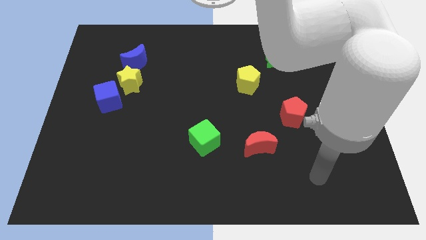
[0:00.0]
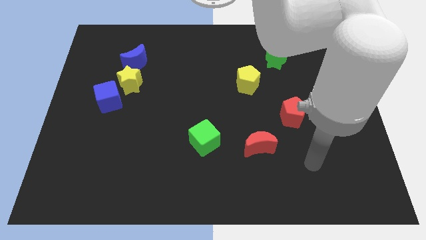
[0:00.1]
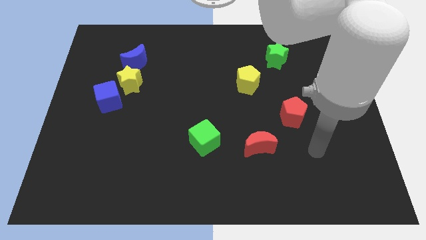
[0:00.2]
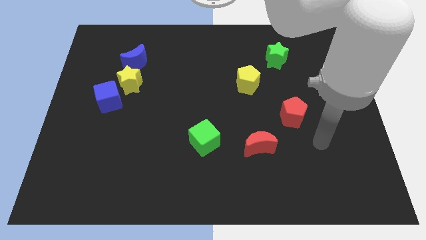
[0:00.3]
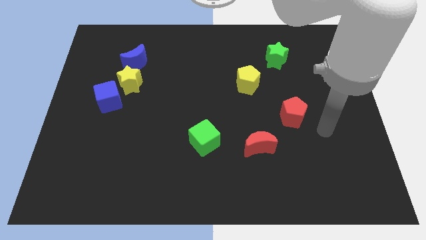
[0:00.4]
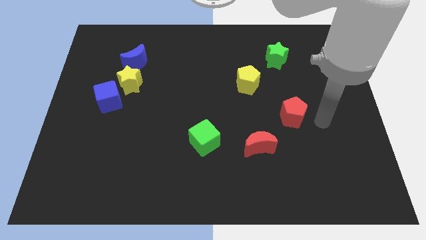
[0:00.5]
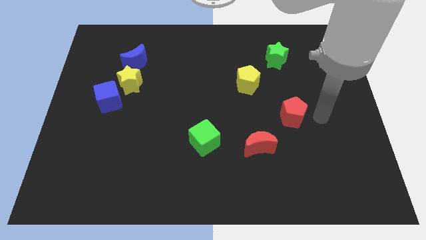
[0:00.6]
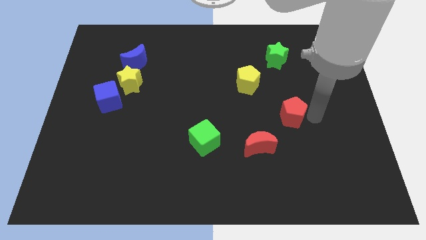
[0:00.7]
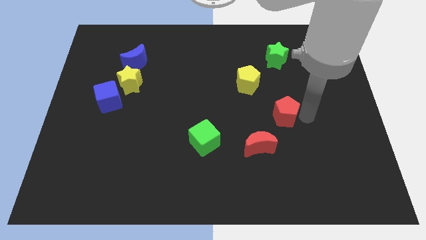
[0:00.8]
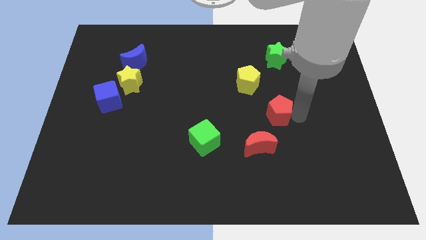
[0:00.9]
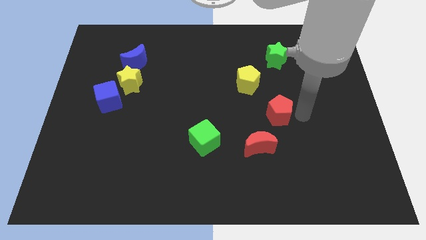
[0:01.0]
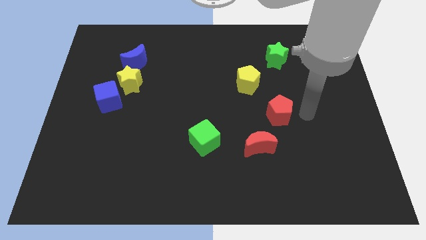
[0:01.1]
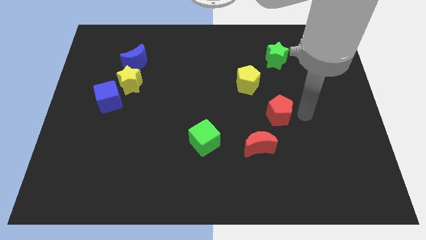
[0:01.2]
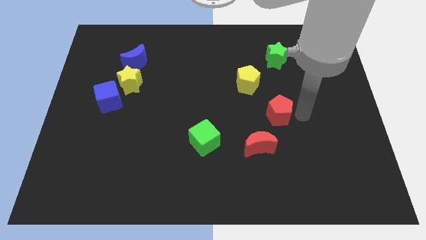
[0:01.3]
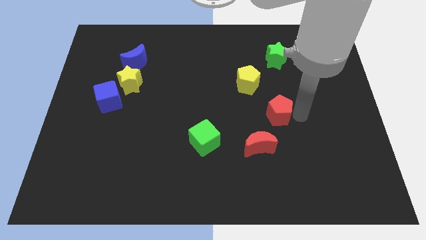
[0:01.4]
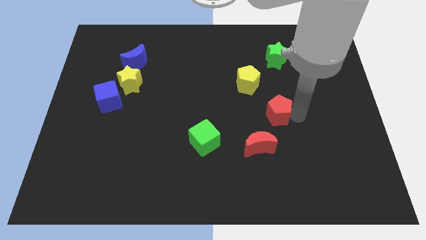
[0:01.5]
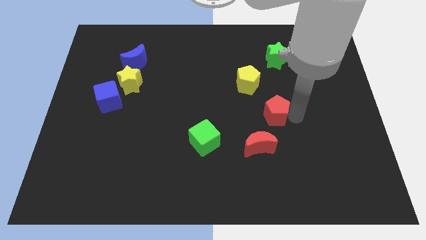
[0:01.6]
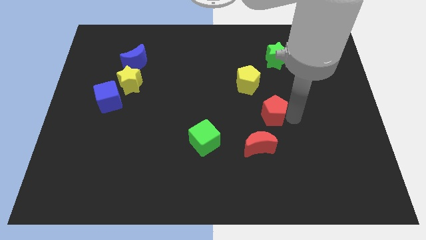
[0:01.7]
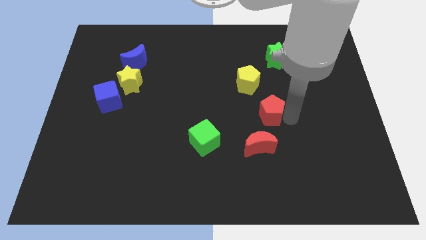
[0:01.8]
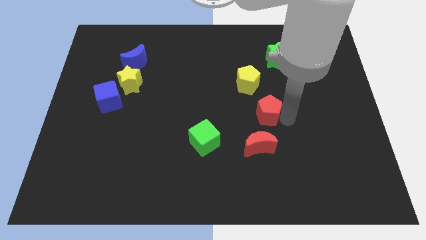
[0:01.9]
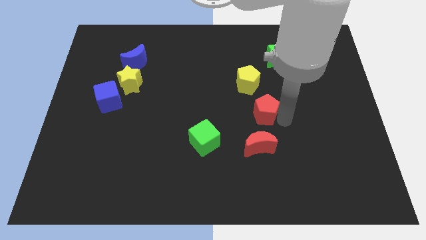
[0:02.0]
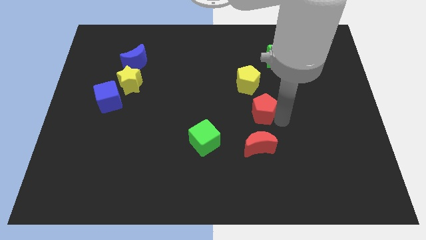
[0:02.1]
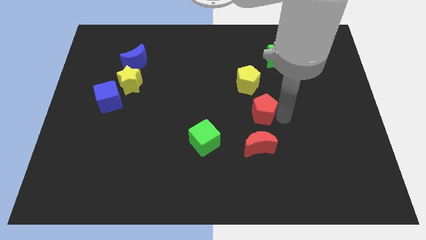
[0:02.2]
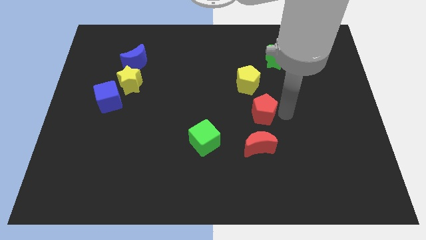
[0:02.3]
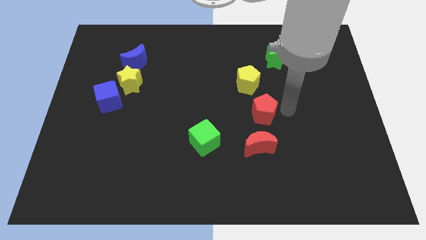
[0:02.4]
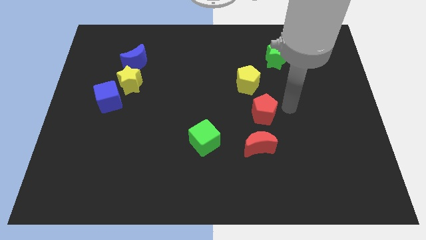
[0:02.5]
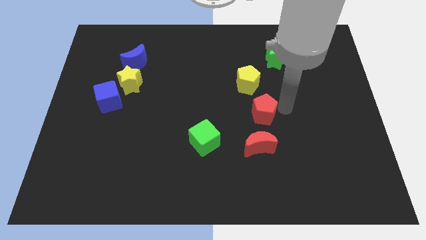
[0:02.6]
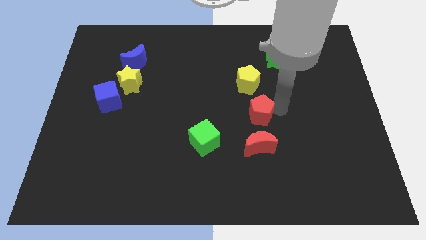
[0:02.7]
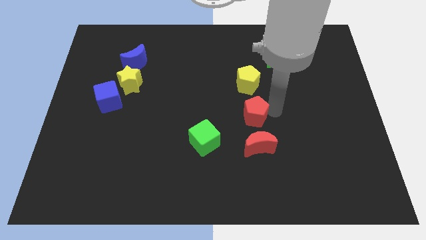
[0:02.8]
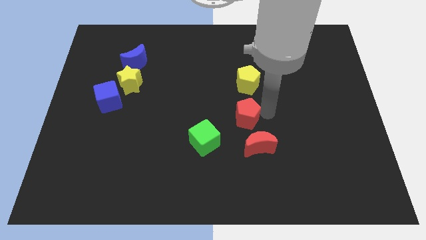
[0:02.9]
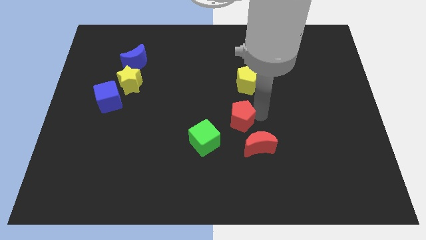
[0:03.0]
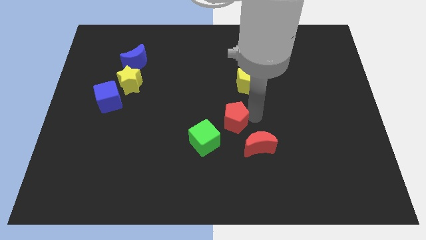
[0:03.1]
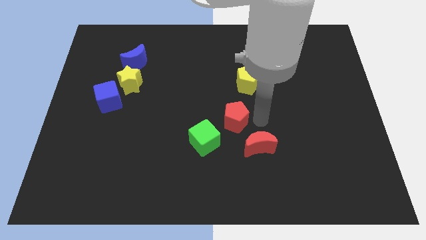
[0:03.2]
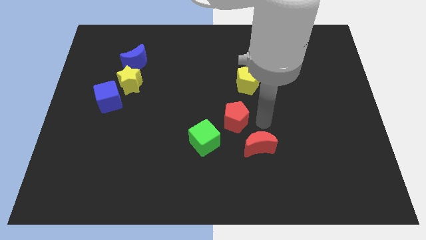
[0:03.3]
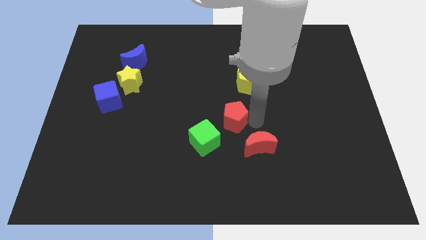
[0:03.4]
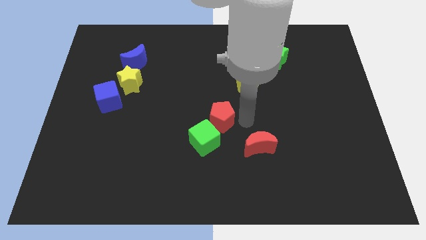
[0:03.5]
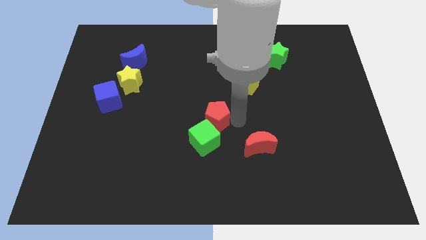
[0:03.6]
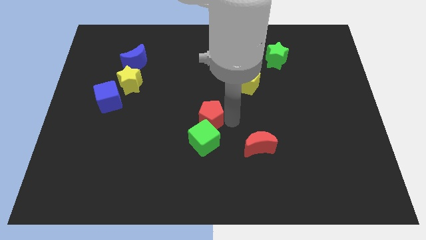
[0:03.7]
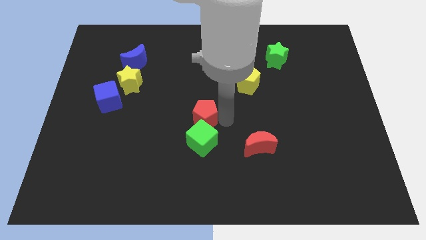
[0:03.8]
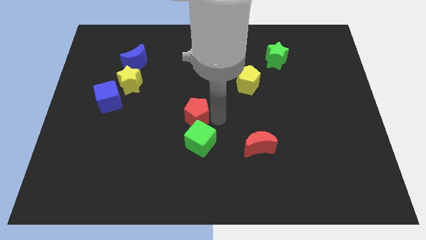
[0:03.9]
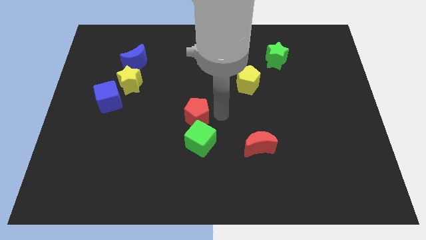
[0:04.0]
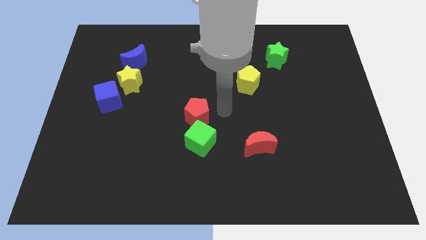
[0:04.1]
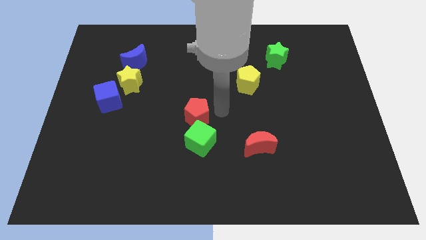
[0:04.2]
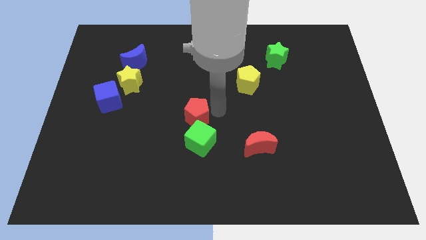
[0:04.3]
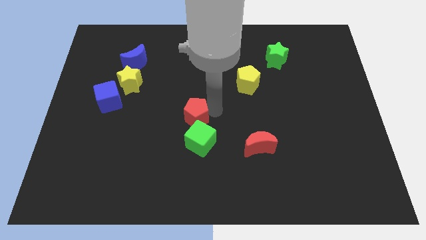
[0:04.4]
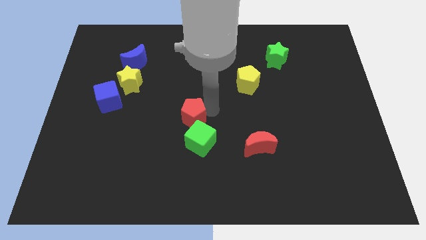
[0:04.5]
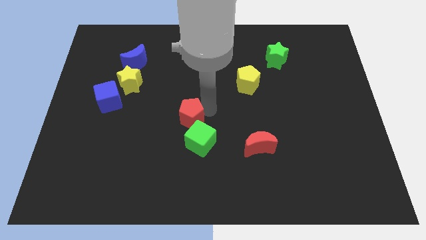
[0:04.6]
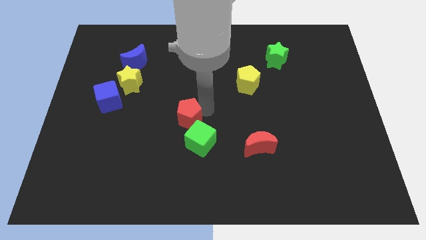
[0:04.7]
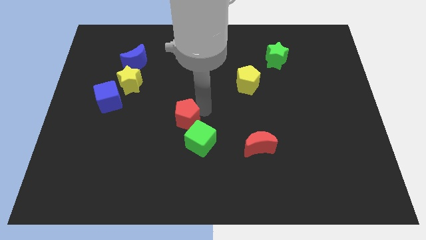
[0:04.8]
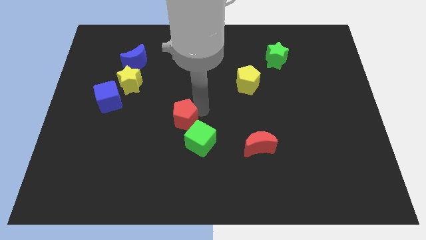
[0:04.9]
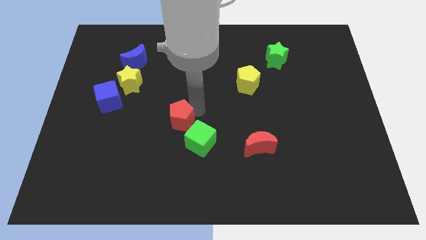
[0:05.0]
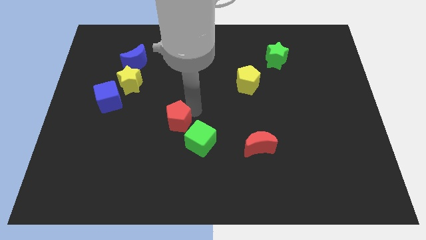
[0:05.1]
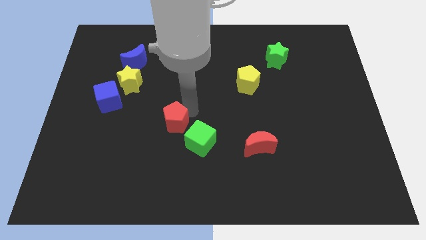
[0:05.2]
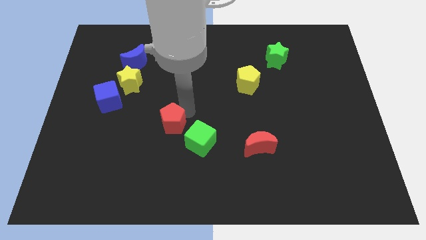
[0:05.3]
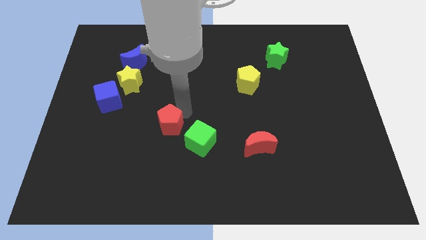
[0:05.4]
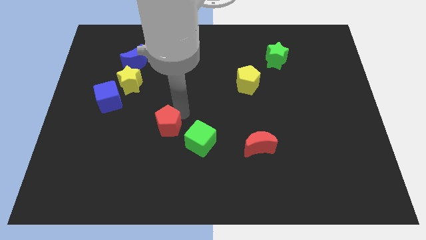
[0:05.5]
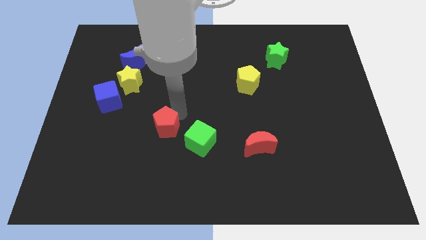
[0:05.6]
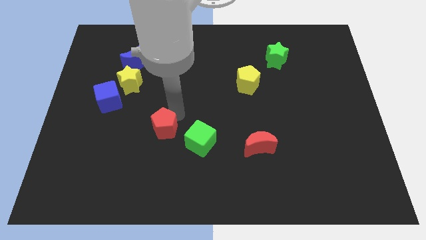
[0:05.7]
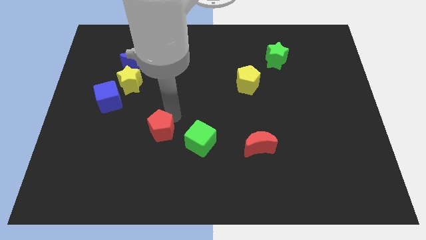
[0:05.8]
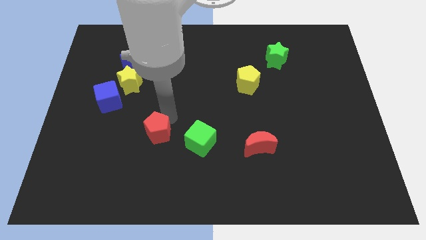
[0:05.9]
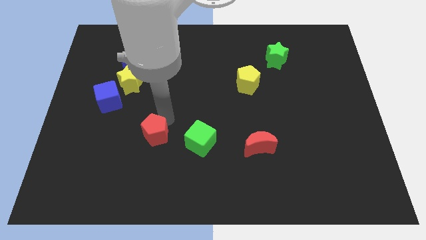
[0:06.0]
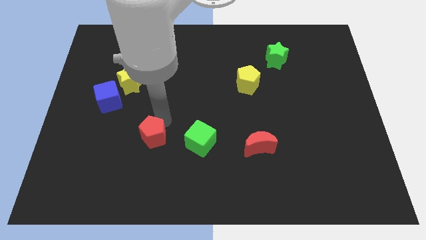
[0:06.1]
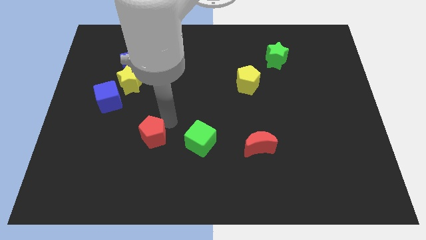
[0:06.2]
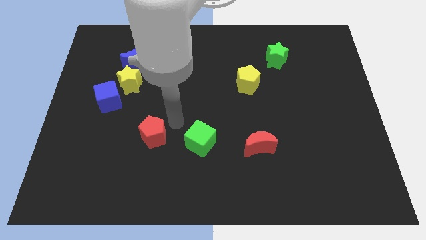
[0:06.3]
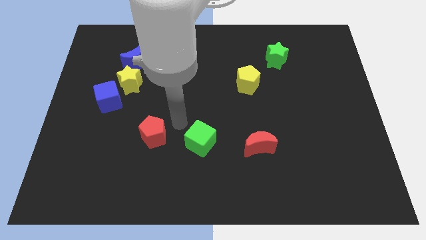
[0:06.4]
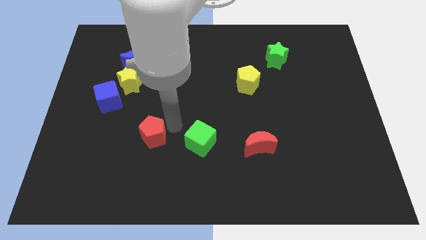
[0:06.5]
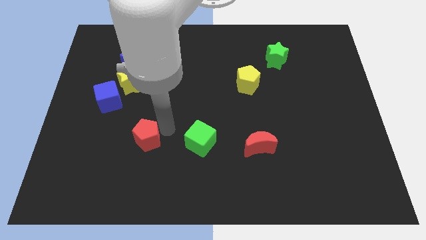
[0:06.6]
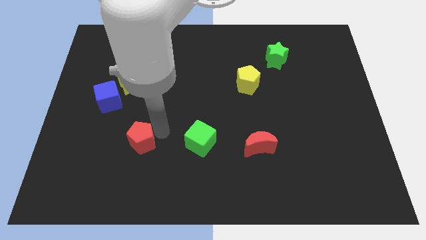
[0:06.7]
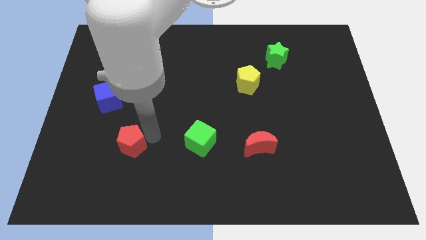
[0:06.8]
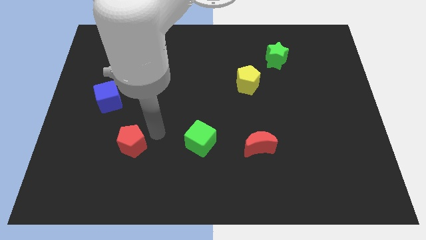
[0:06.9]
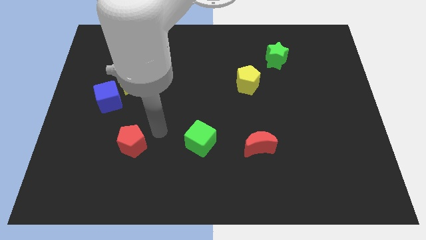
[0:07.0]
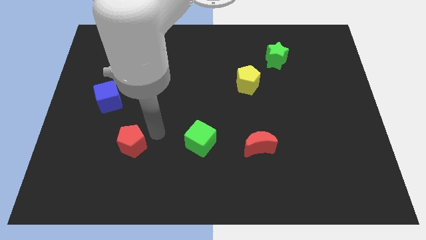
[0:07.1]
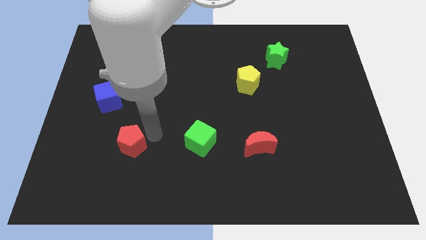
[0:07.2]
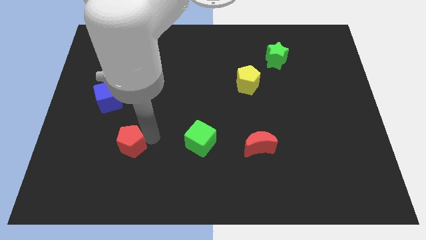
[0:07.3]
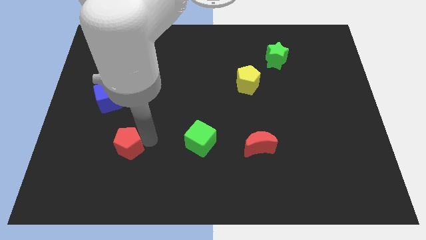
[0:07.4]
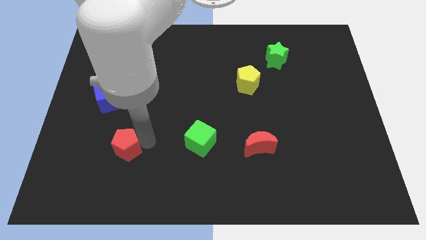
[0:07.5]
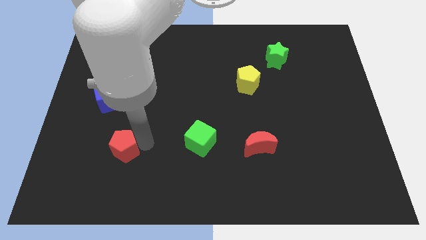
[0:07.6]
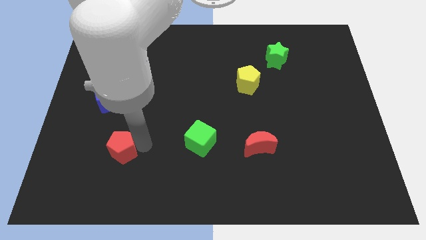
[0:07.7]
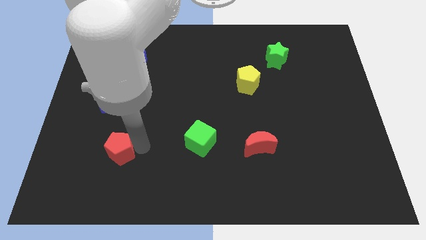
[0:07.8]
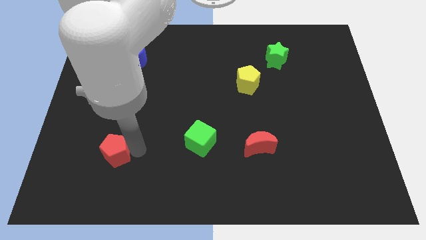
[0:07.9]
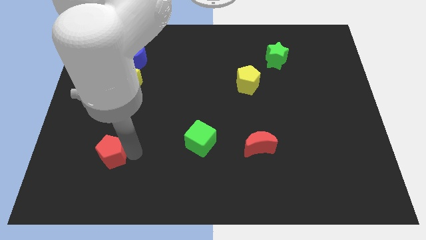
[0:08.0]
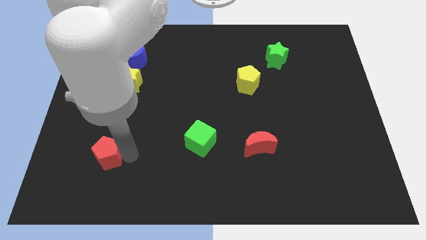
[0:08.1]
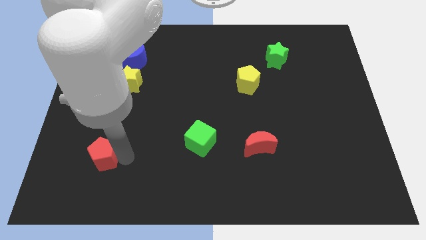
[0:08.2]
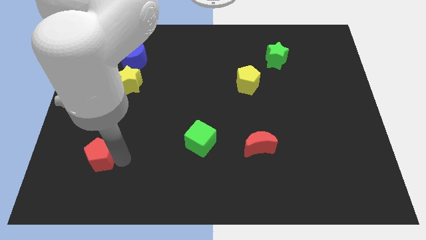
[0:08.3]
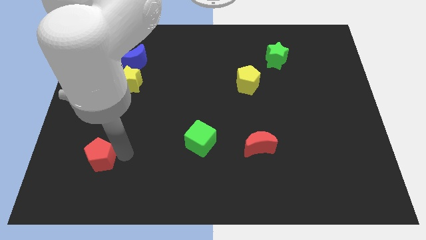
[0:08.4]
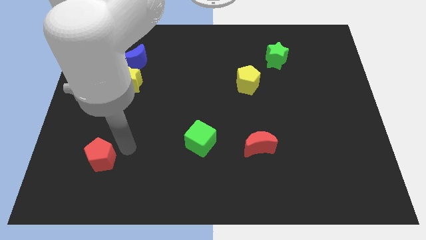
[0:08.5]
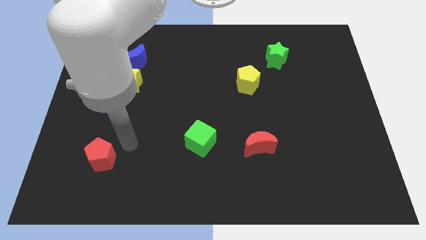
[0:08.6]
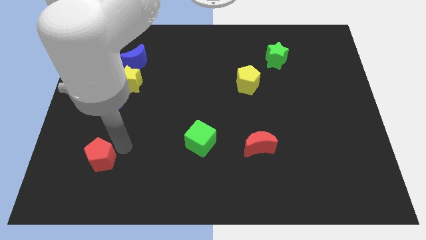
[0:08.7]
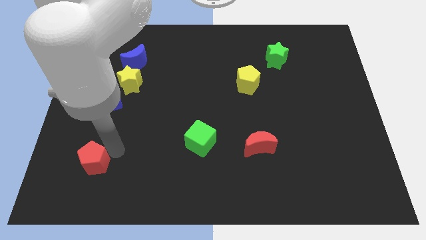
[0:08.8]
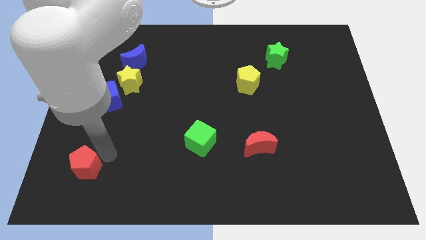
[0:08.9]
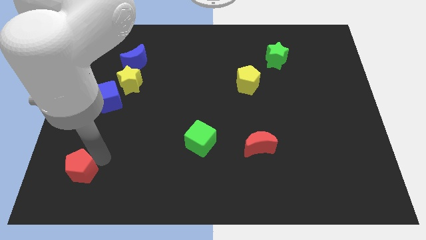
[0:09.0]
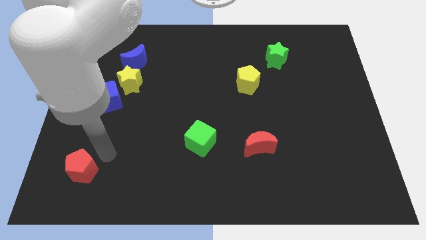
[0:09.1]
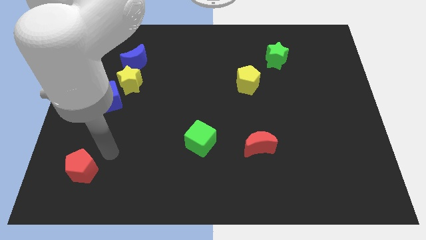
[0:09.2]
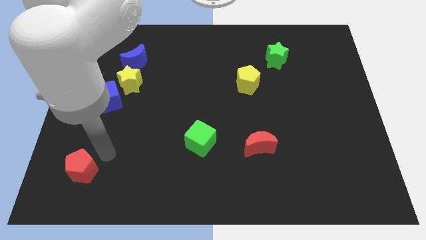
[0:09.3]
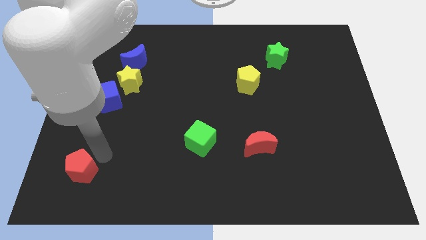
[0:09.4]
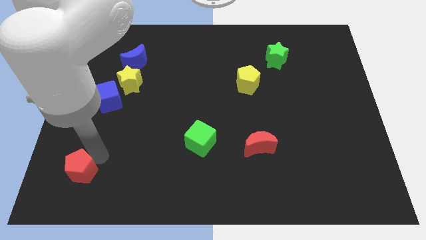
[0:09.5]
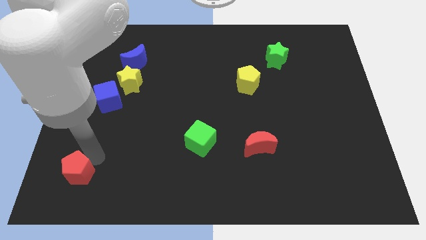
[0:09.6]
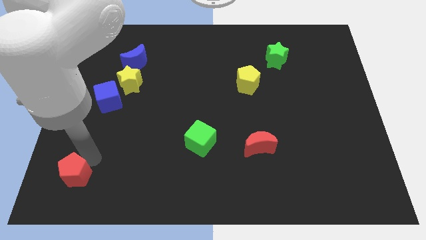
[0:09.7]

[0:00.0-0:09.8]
move the red pentagon to the bottom left
